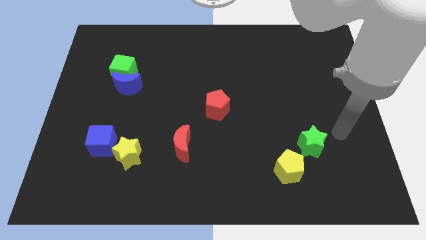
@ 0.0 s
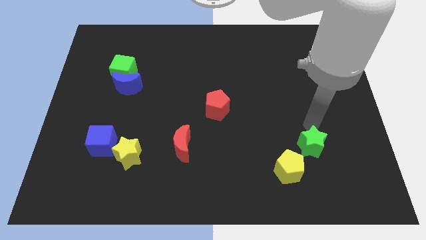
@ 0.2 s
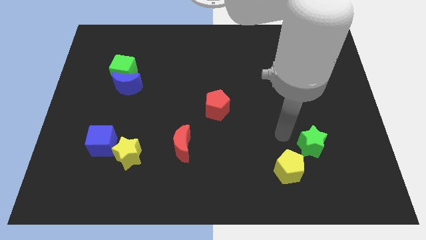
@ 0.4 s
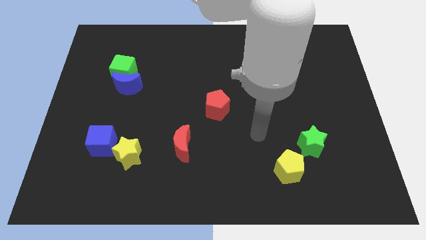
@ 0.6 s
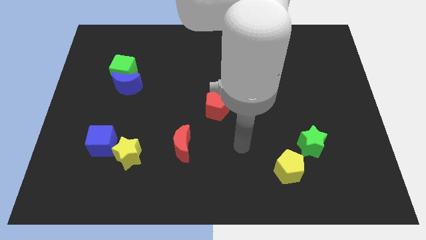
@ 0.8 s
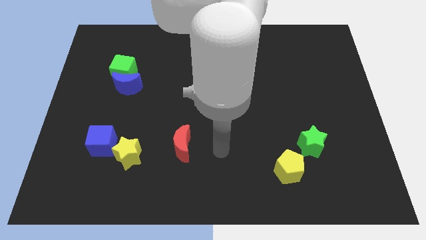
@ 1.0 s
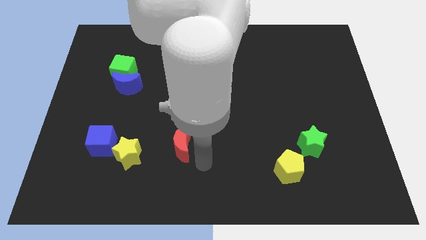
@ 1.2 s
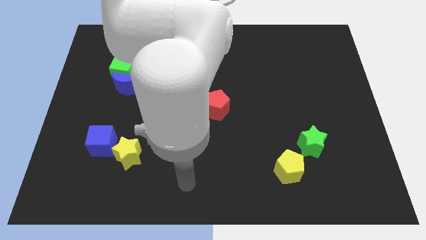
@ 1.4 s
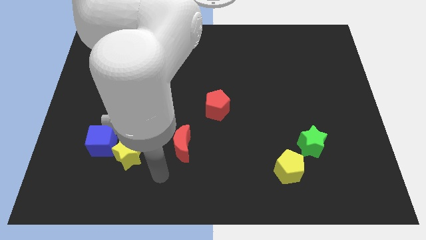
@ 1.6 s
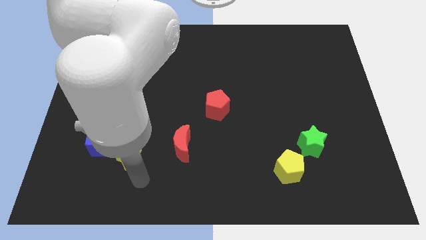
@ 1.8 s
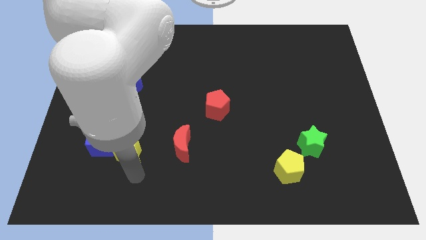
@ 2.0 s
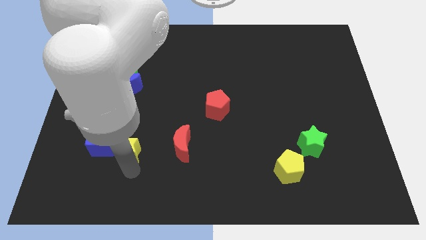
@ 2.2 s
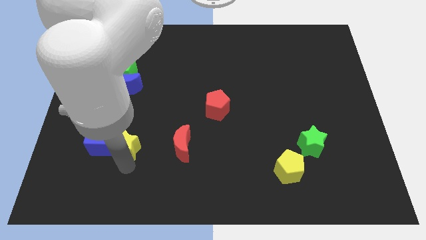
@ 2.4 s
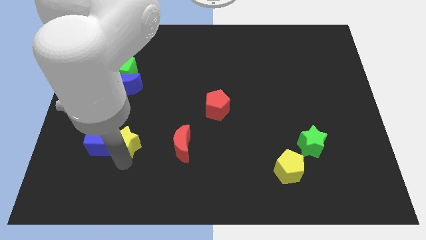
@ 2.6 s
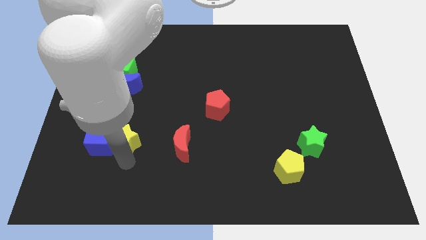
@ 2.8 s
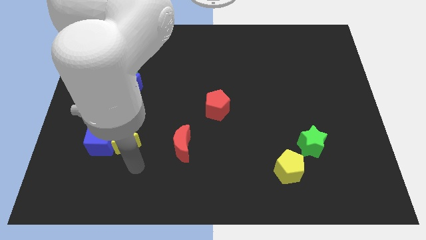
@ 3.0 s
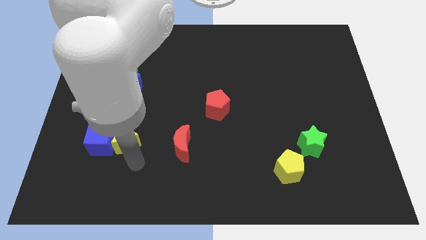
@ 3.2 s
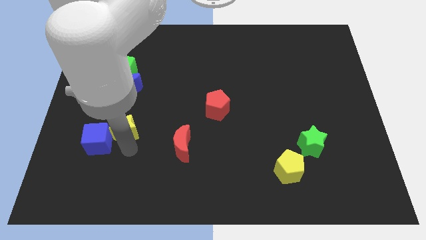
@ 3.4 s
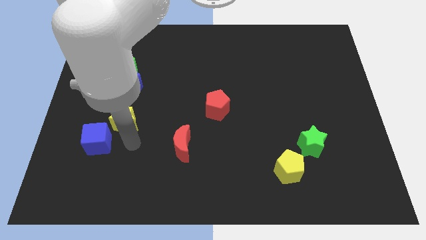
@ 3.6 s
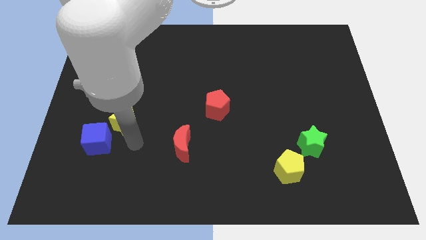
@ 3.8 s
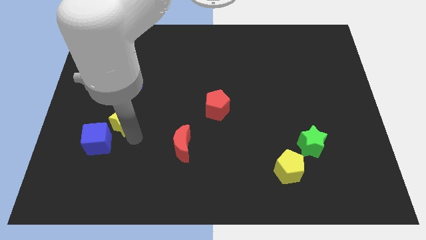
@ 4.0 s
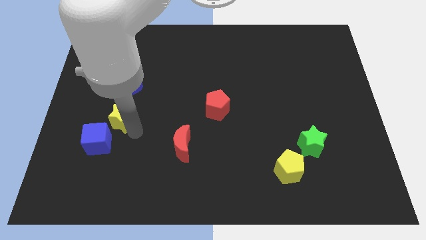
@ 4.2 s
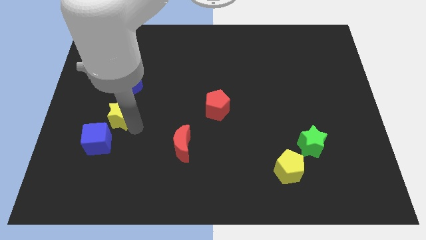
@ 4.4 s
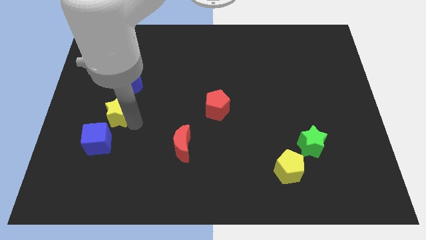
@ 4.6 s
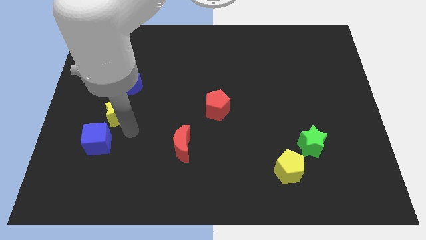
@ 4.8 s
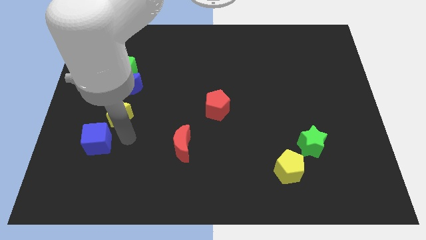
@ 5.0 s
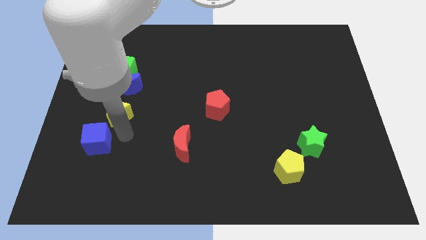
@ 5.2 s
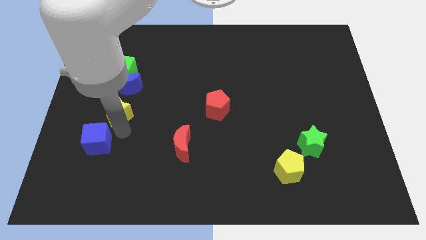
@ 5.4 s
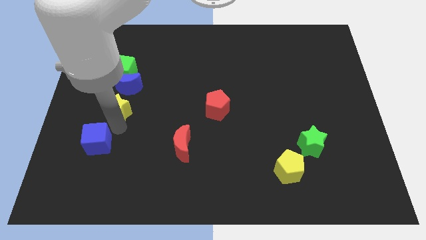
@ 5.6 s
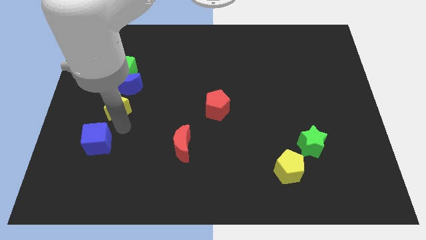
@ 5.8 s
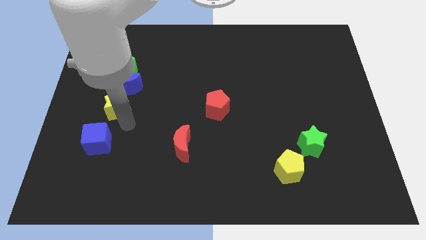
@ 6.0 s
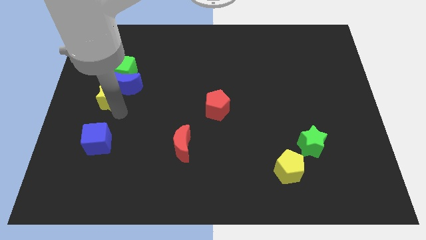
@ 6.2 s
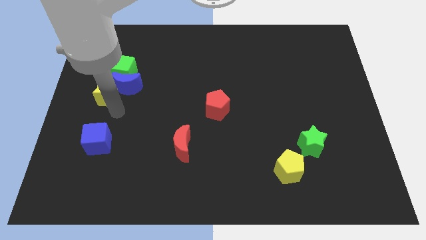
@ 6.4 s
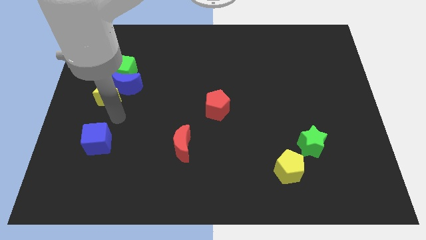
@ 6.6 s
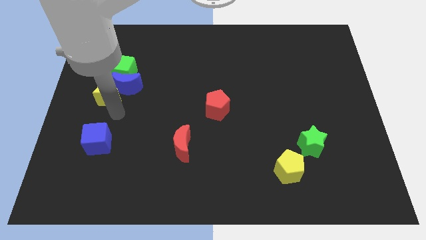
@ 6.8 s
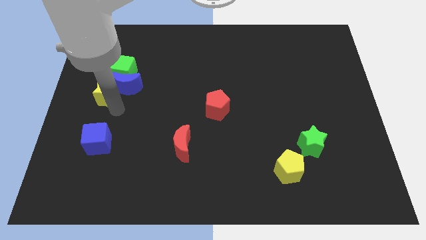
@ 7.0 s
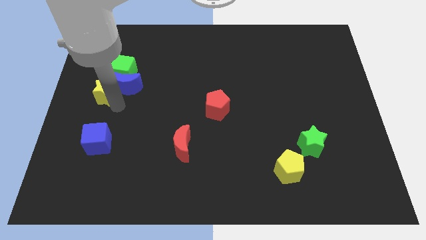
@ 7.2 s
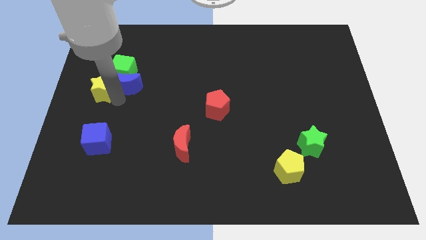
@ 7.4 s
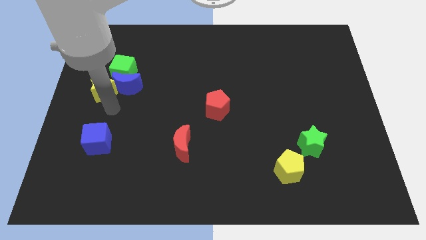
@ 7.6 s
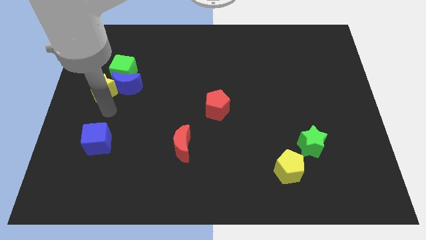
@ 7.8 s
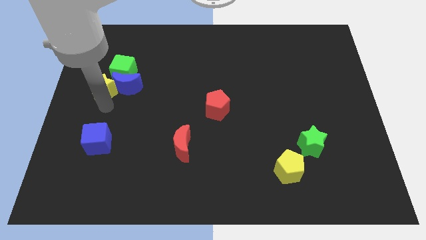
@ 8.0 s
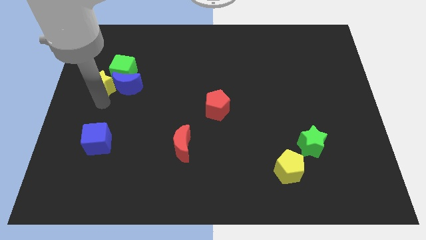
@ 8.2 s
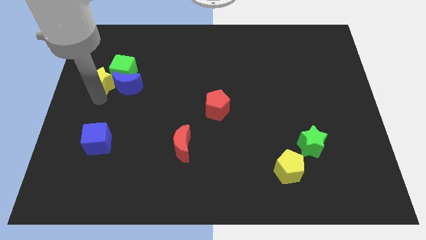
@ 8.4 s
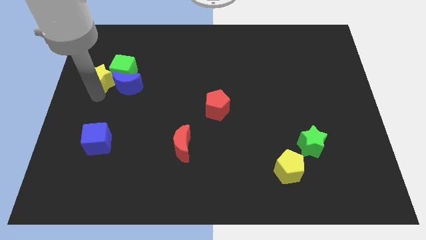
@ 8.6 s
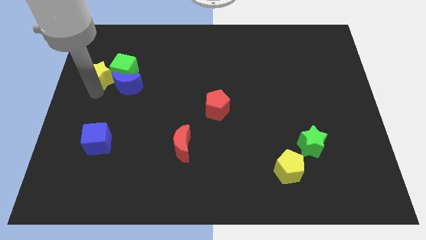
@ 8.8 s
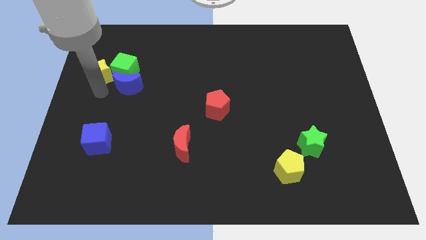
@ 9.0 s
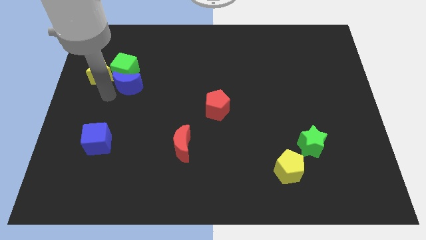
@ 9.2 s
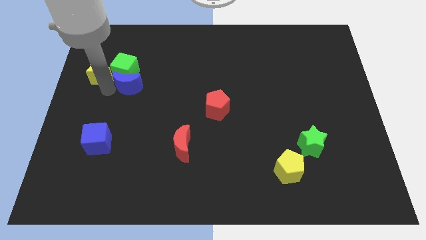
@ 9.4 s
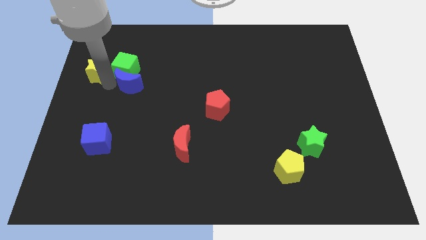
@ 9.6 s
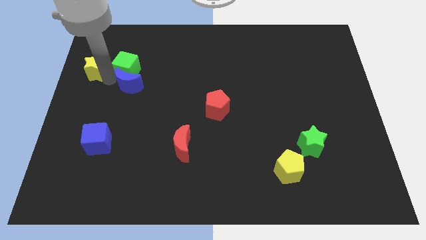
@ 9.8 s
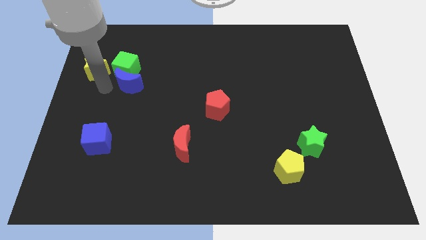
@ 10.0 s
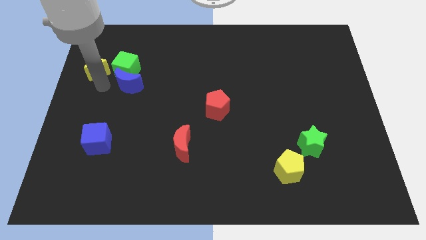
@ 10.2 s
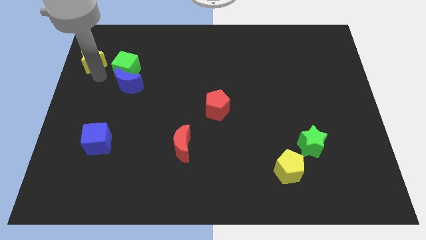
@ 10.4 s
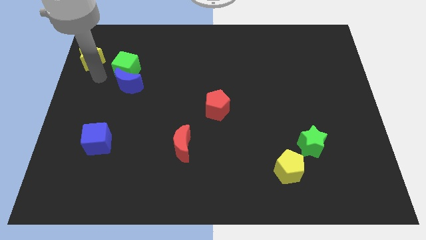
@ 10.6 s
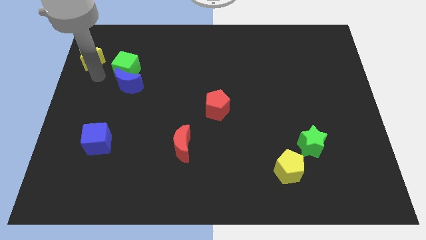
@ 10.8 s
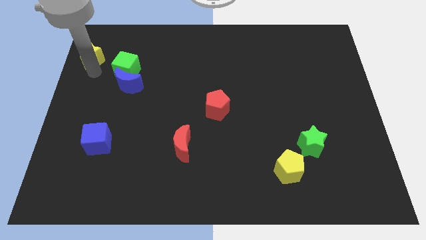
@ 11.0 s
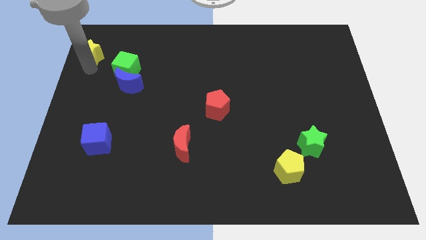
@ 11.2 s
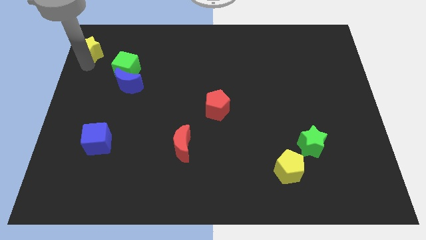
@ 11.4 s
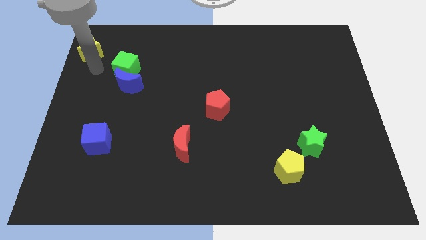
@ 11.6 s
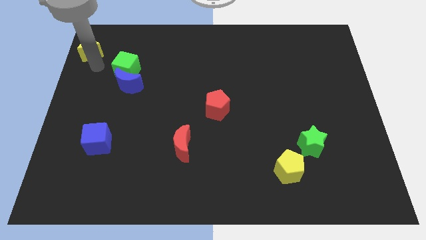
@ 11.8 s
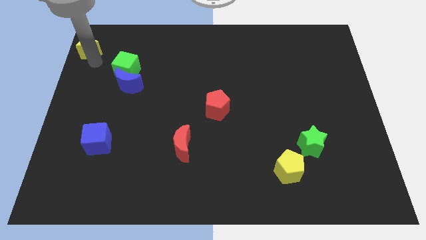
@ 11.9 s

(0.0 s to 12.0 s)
push the yellow star to the top left of the board
